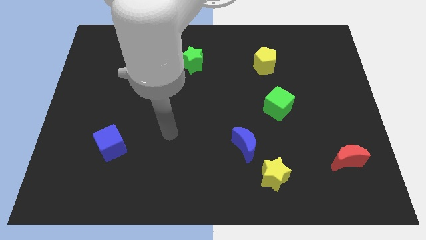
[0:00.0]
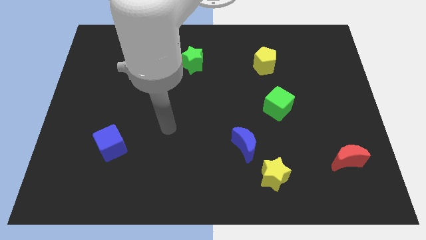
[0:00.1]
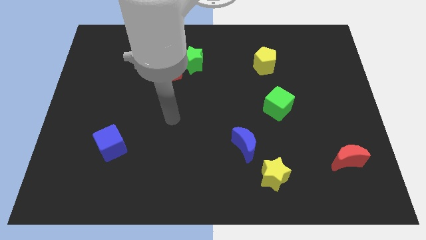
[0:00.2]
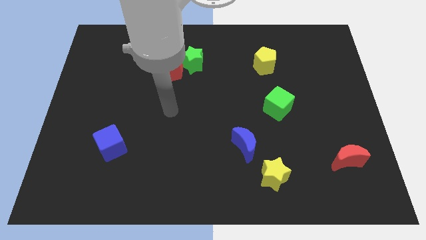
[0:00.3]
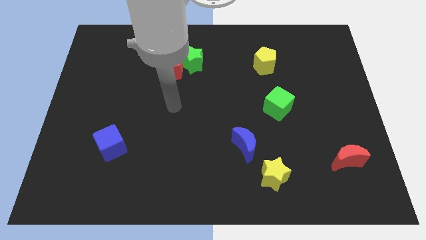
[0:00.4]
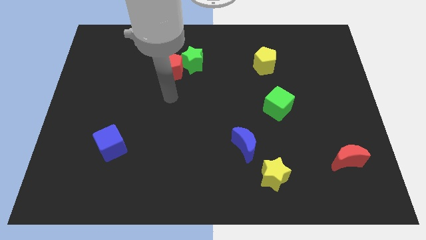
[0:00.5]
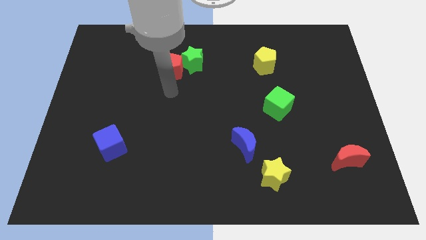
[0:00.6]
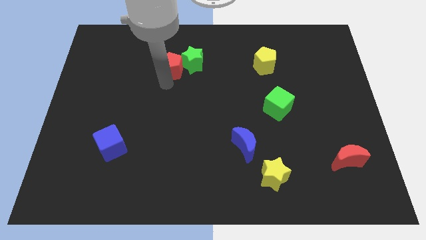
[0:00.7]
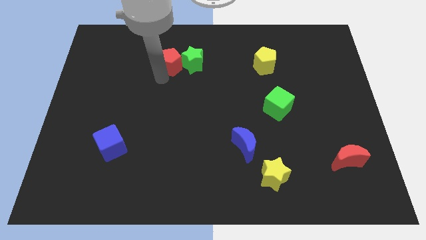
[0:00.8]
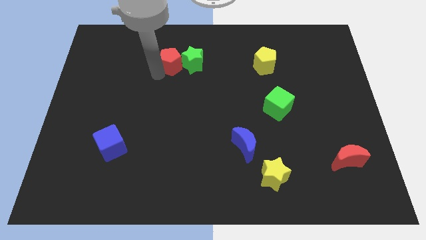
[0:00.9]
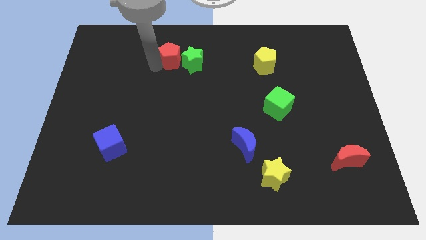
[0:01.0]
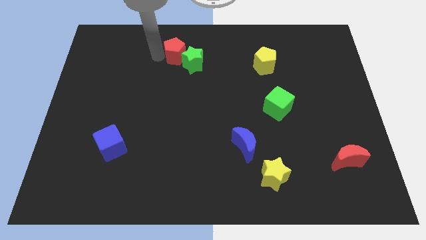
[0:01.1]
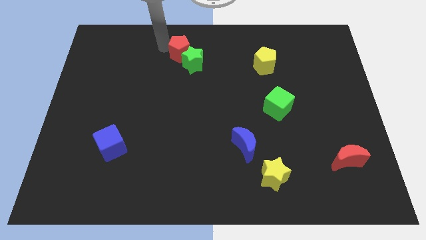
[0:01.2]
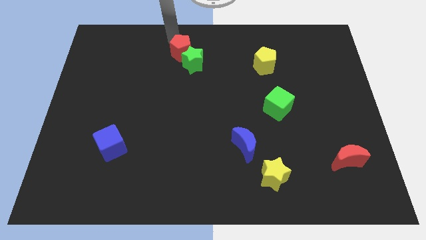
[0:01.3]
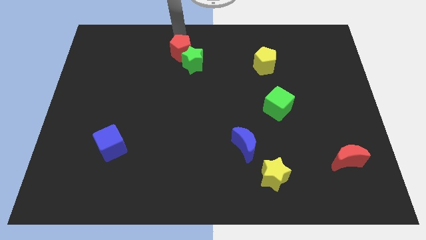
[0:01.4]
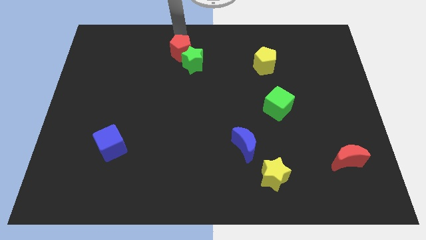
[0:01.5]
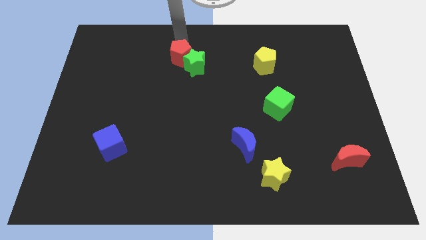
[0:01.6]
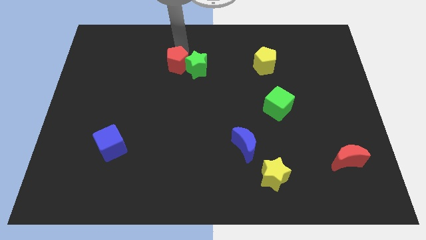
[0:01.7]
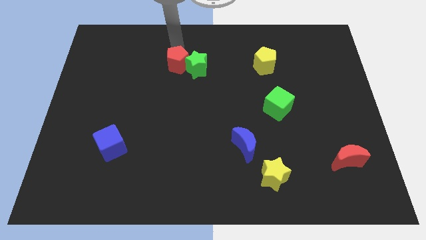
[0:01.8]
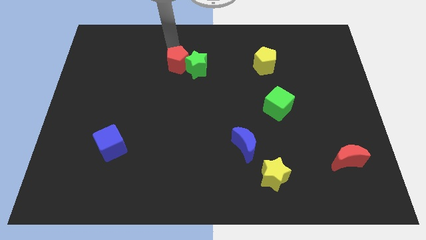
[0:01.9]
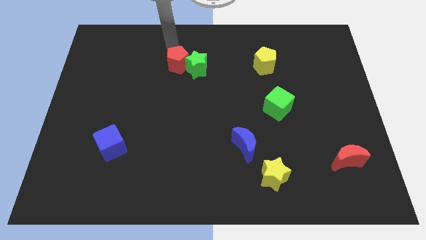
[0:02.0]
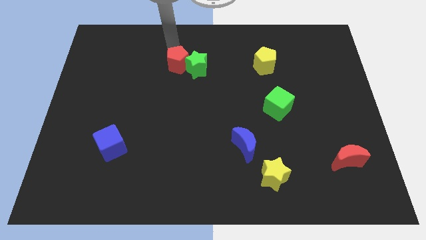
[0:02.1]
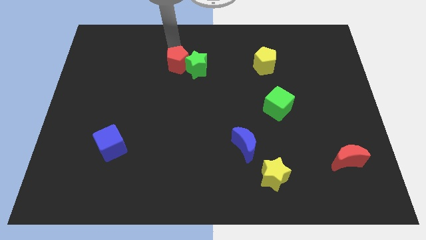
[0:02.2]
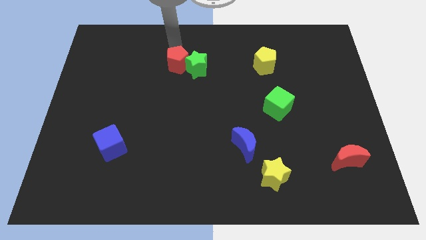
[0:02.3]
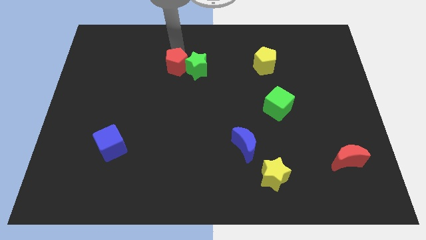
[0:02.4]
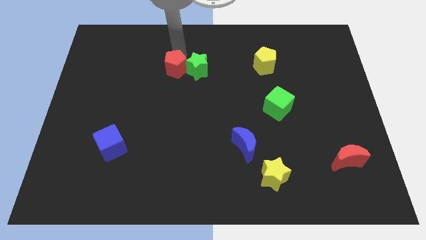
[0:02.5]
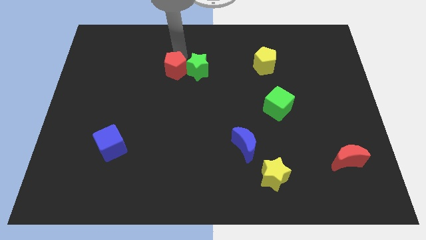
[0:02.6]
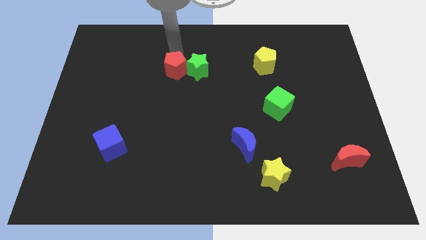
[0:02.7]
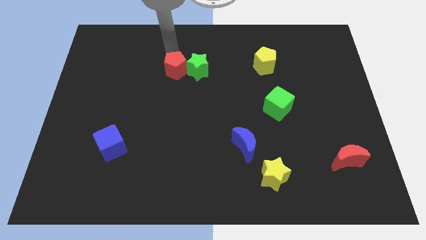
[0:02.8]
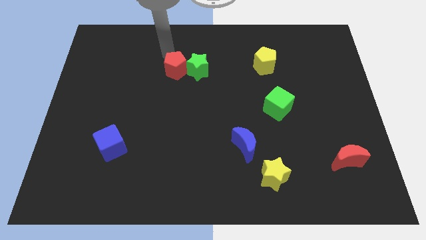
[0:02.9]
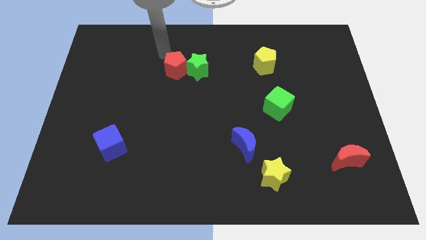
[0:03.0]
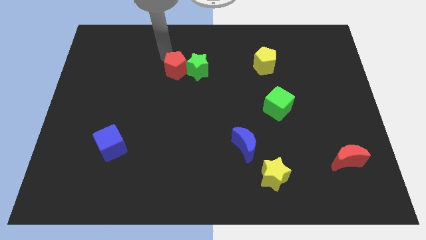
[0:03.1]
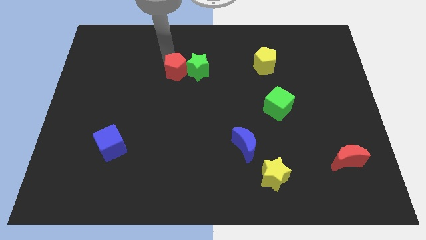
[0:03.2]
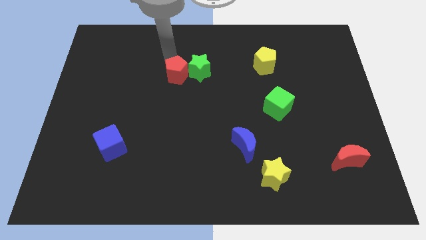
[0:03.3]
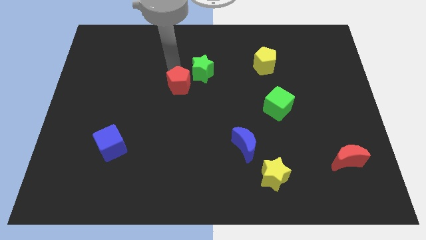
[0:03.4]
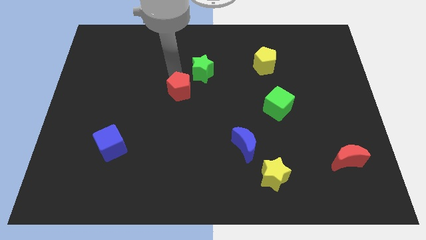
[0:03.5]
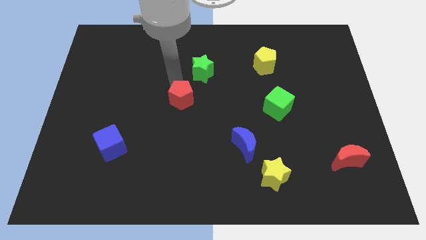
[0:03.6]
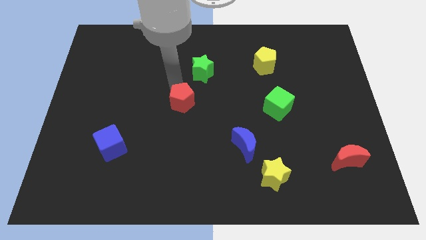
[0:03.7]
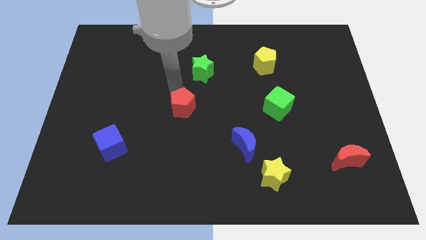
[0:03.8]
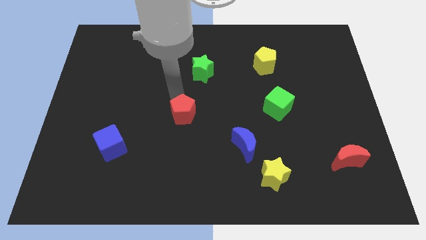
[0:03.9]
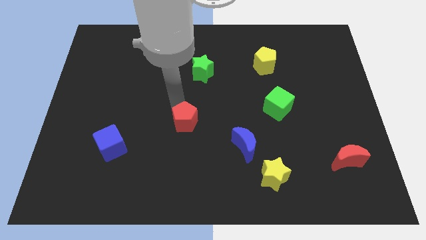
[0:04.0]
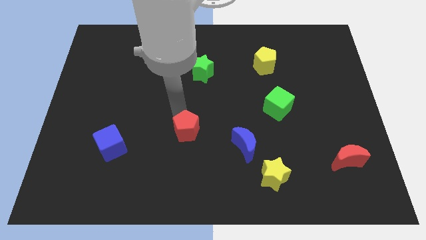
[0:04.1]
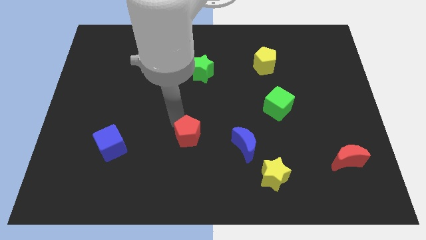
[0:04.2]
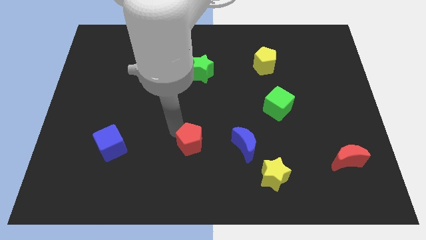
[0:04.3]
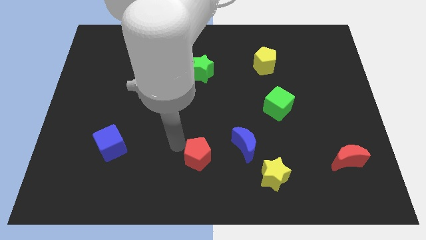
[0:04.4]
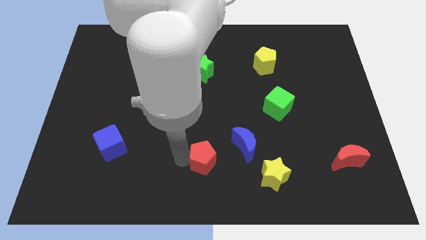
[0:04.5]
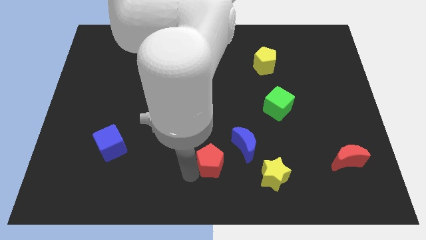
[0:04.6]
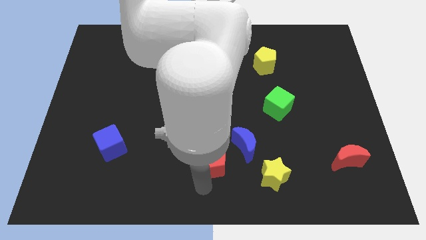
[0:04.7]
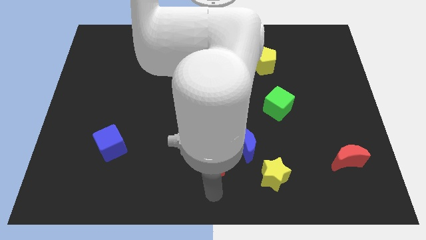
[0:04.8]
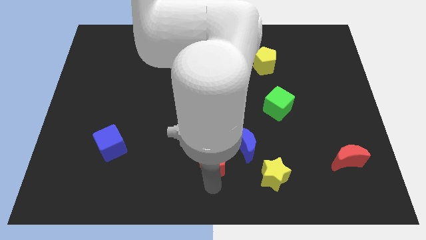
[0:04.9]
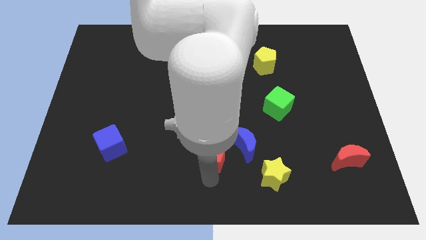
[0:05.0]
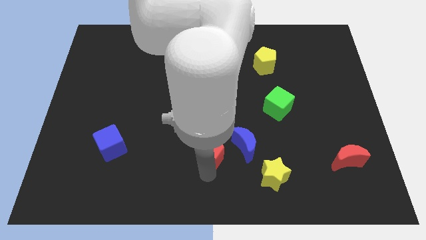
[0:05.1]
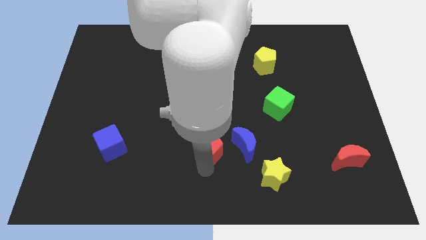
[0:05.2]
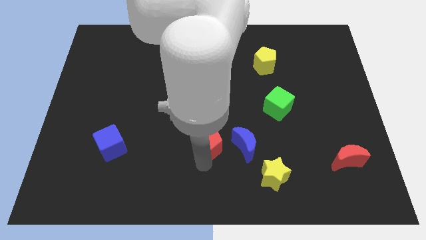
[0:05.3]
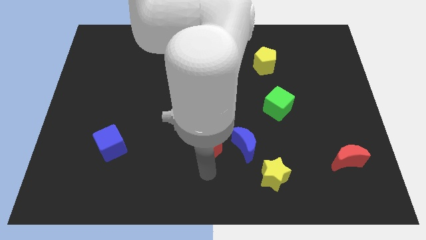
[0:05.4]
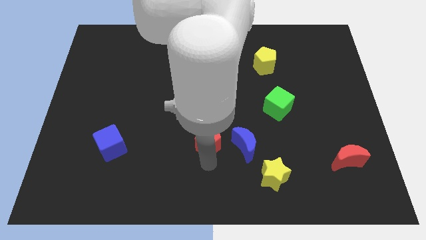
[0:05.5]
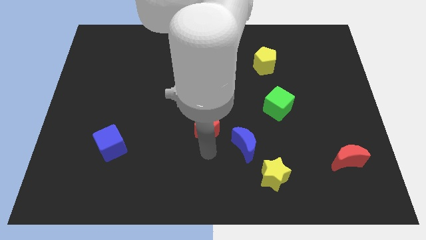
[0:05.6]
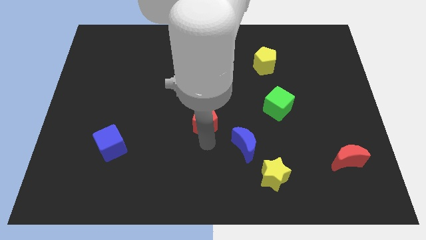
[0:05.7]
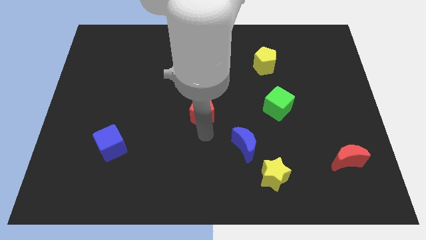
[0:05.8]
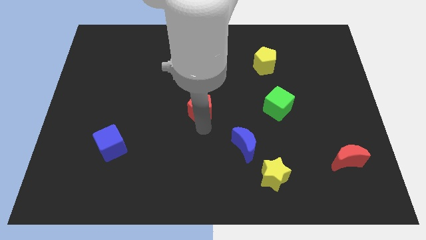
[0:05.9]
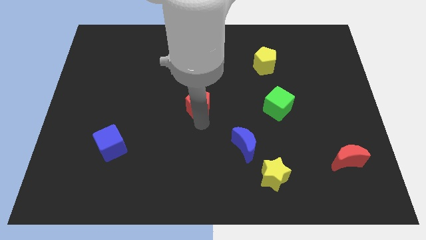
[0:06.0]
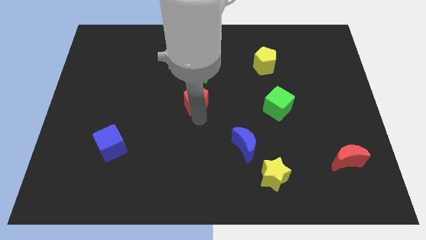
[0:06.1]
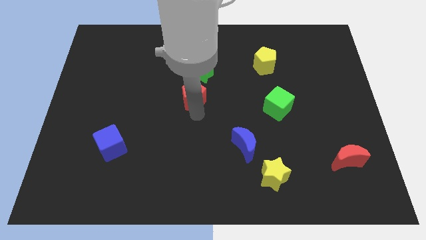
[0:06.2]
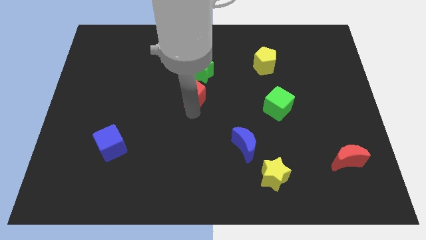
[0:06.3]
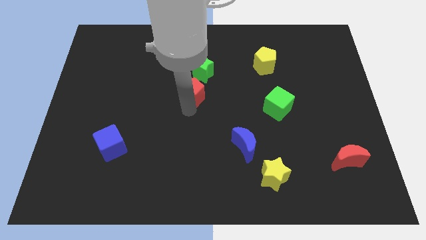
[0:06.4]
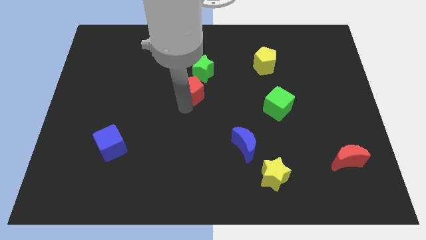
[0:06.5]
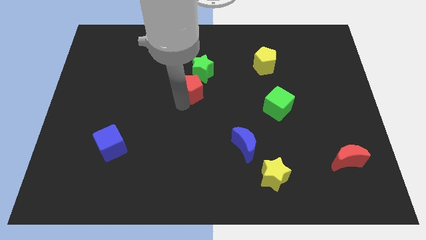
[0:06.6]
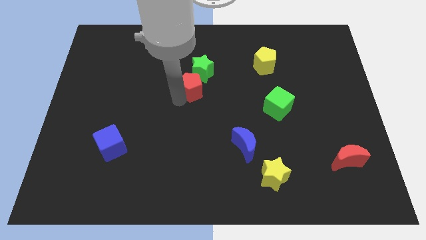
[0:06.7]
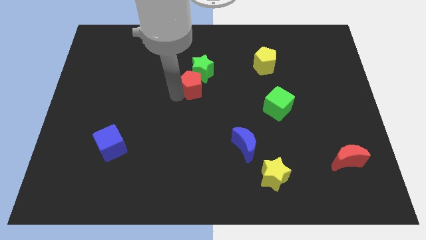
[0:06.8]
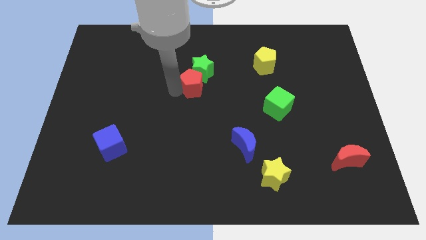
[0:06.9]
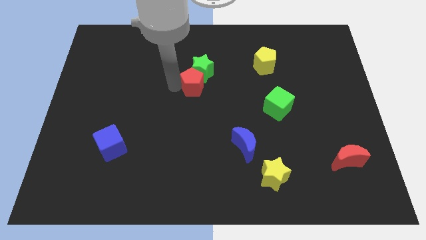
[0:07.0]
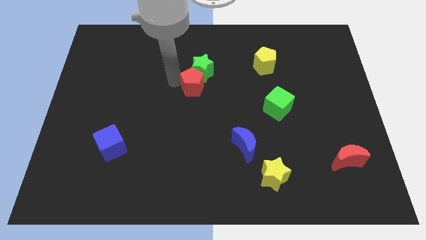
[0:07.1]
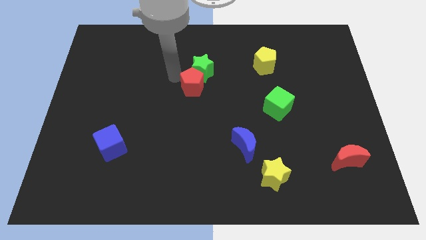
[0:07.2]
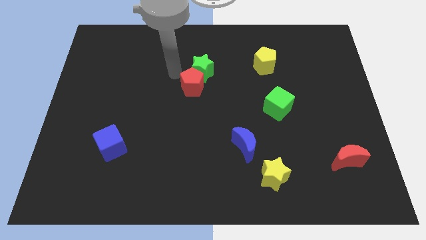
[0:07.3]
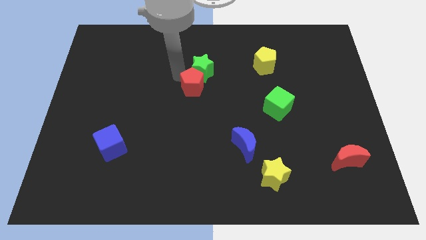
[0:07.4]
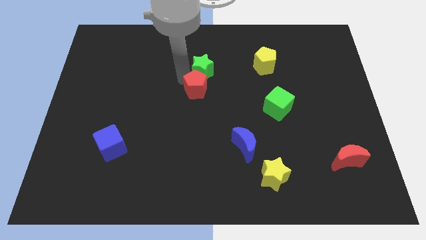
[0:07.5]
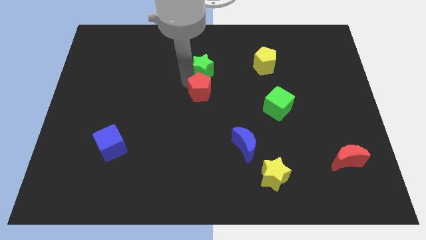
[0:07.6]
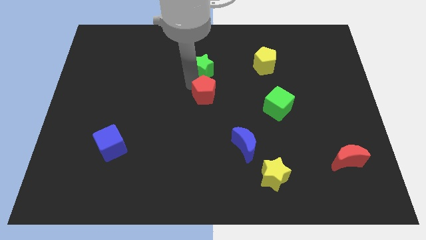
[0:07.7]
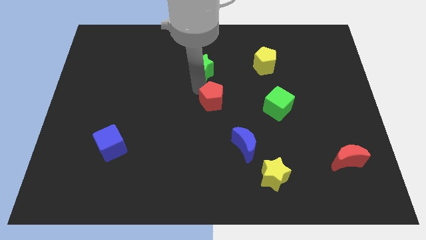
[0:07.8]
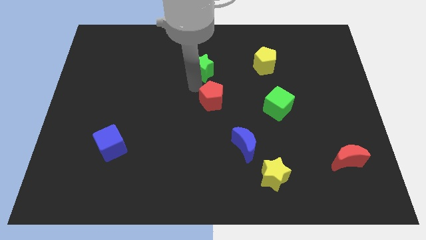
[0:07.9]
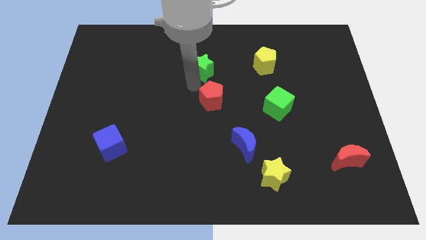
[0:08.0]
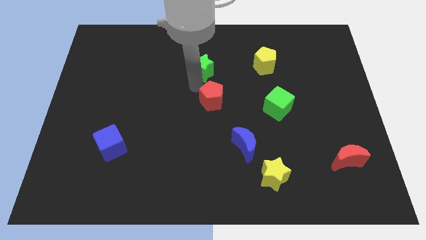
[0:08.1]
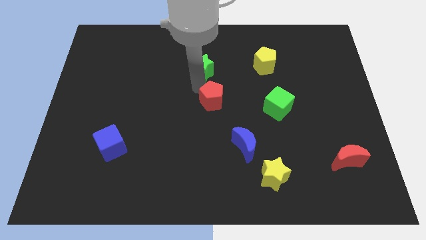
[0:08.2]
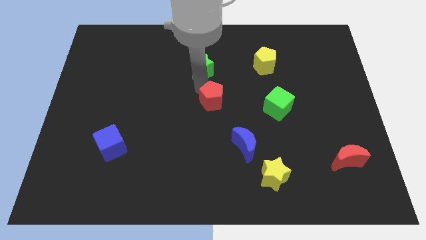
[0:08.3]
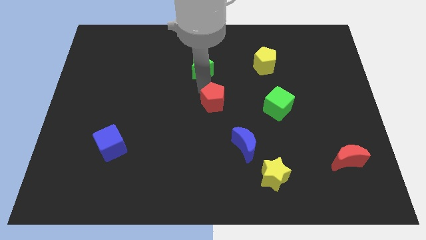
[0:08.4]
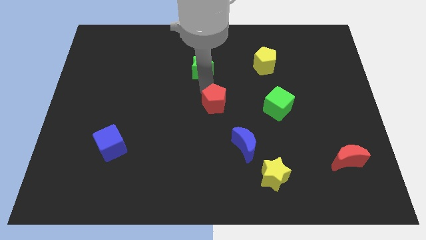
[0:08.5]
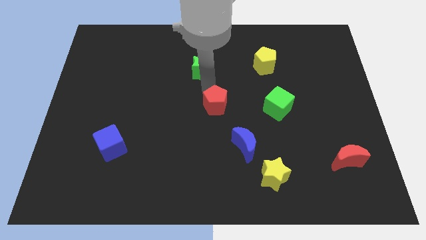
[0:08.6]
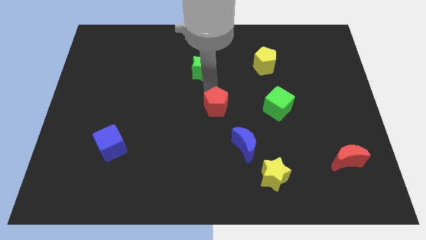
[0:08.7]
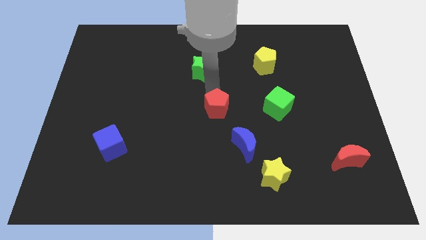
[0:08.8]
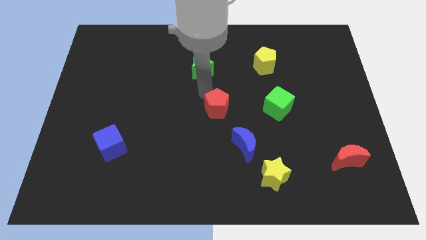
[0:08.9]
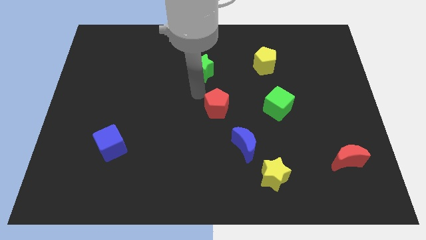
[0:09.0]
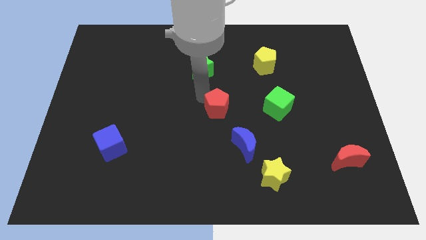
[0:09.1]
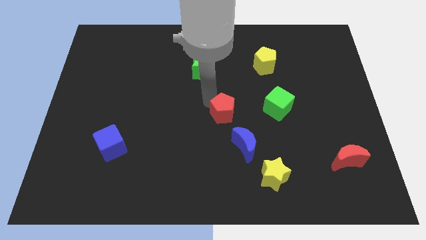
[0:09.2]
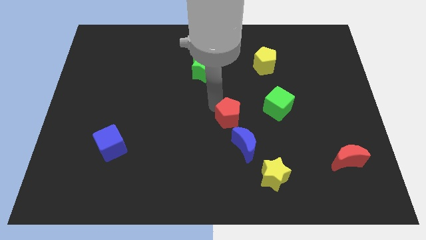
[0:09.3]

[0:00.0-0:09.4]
slide the red pentagon downwards and then right
